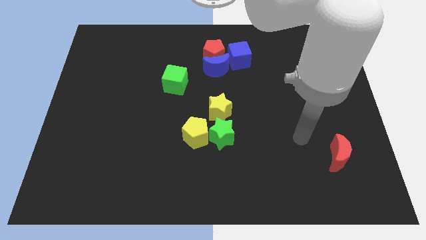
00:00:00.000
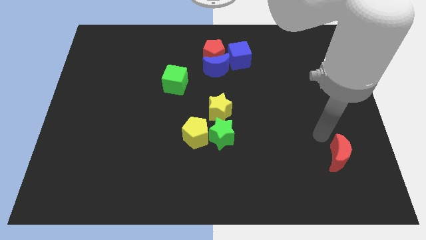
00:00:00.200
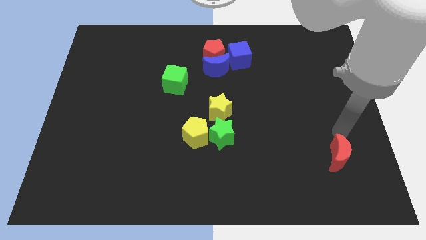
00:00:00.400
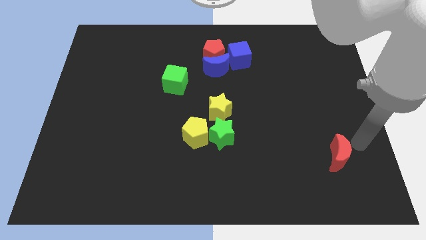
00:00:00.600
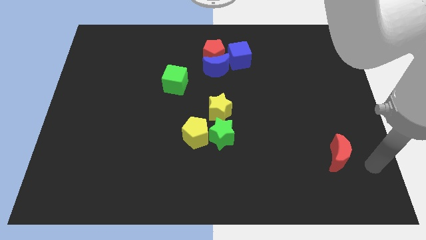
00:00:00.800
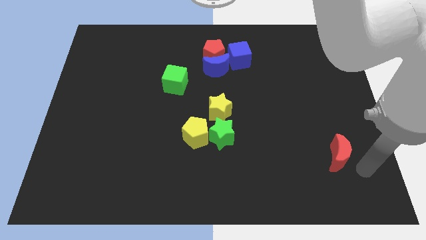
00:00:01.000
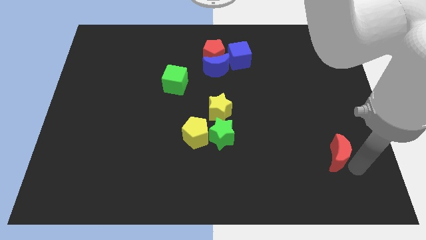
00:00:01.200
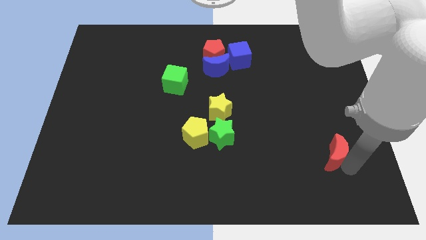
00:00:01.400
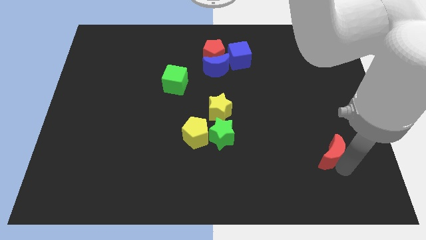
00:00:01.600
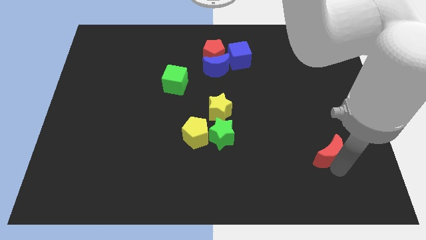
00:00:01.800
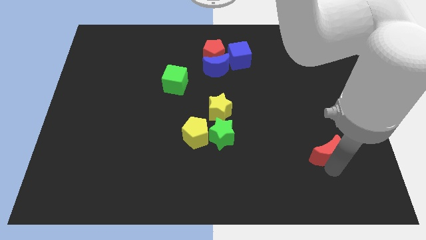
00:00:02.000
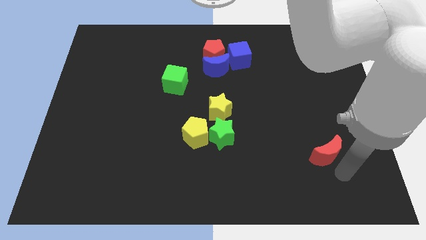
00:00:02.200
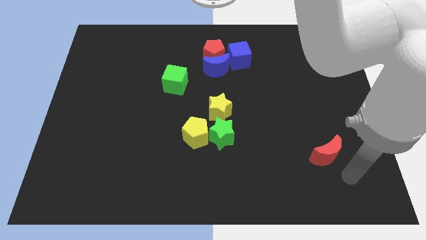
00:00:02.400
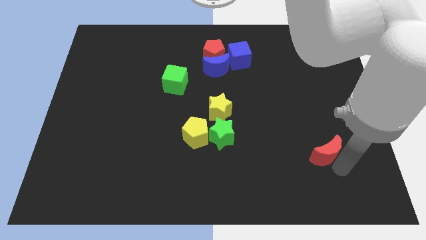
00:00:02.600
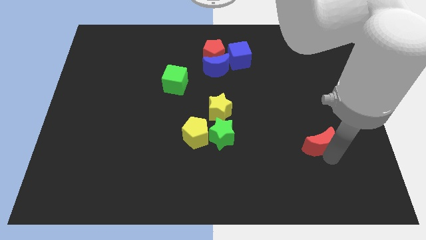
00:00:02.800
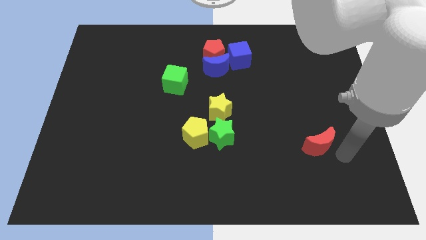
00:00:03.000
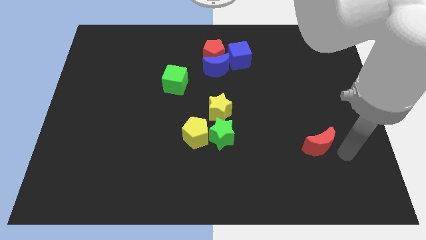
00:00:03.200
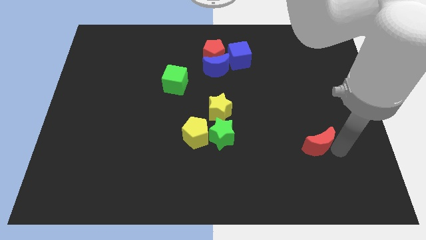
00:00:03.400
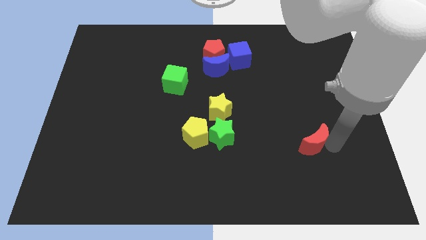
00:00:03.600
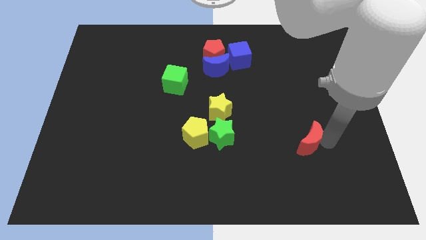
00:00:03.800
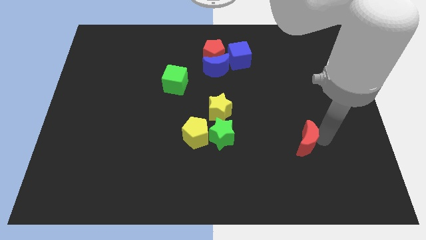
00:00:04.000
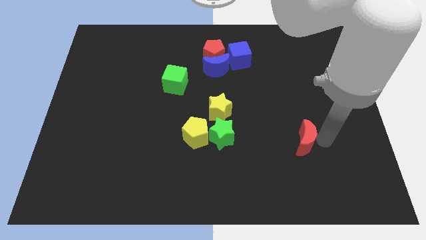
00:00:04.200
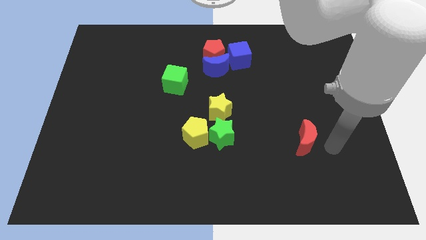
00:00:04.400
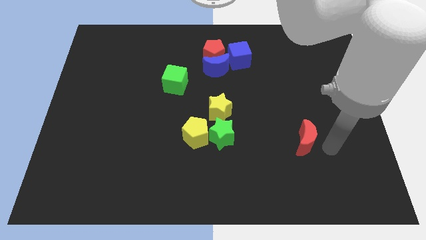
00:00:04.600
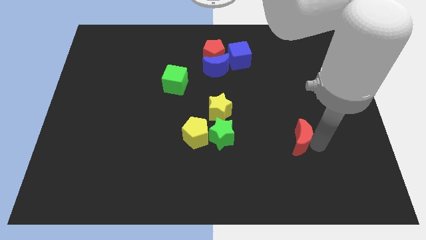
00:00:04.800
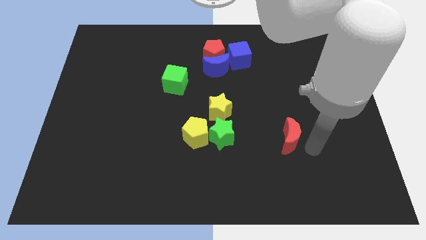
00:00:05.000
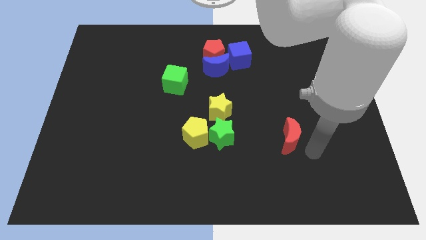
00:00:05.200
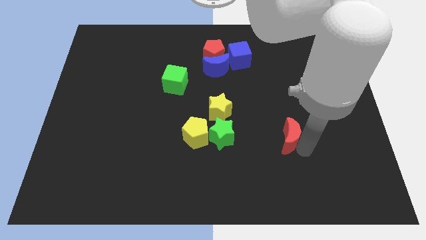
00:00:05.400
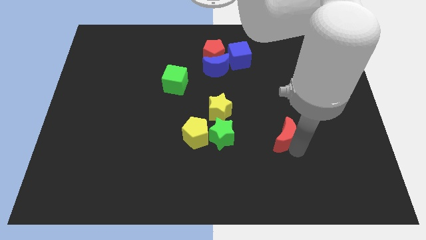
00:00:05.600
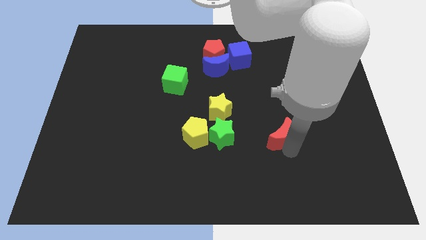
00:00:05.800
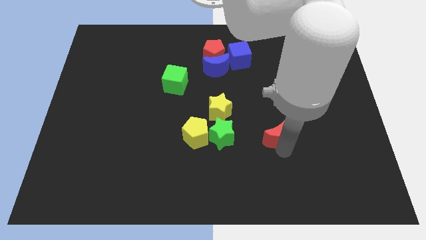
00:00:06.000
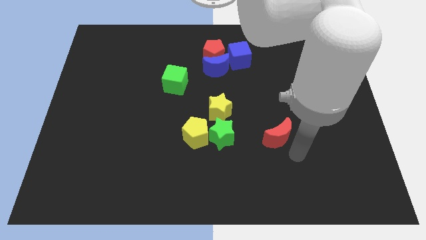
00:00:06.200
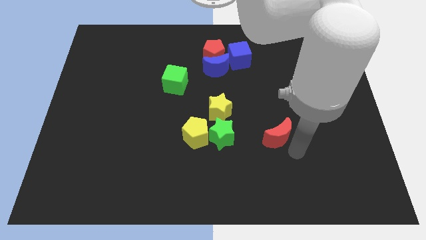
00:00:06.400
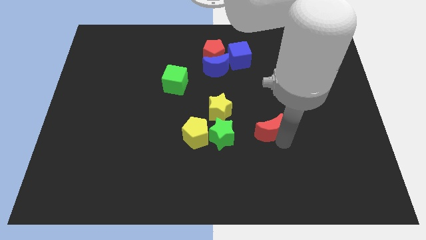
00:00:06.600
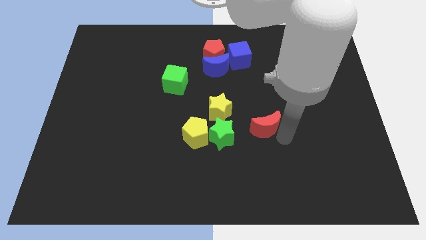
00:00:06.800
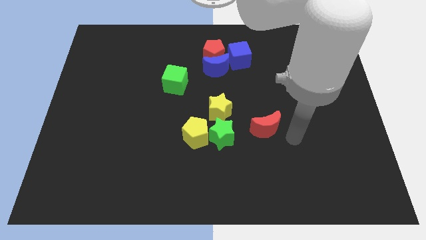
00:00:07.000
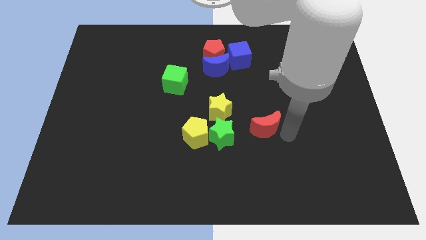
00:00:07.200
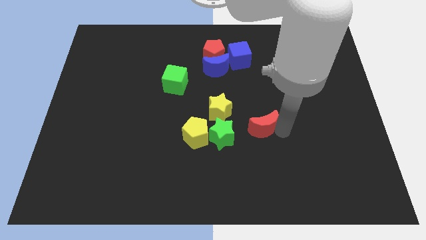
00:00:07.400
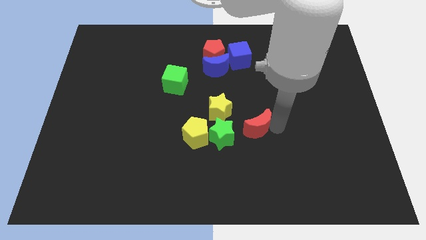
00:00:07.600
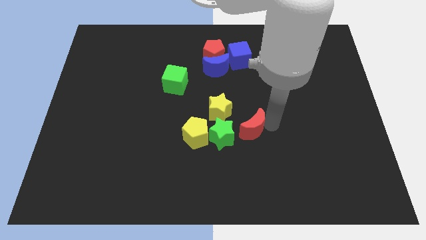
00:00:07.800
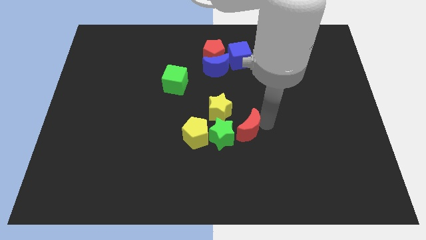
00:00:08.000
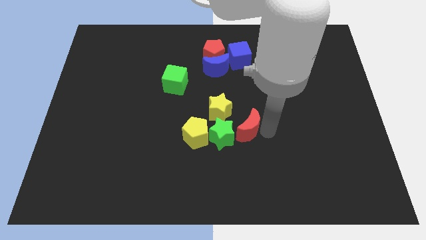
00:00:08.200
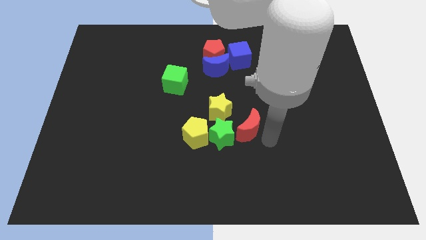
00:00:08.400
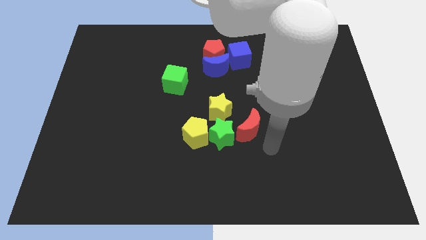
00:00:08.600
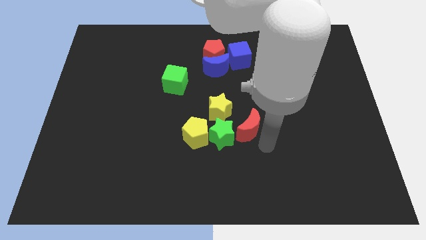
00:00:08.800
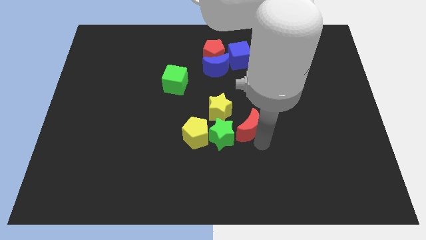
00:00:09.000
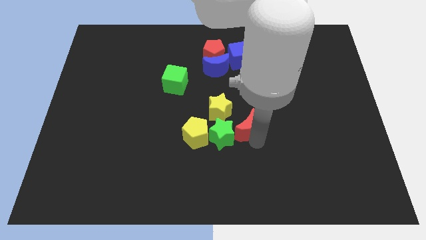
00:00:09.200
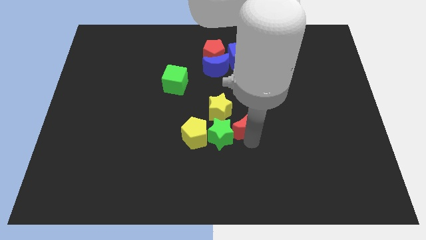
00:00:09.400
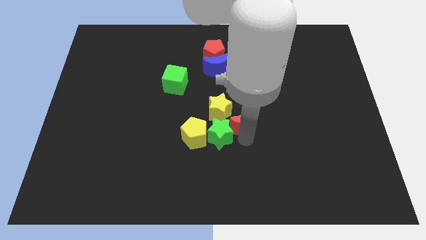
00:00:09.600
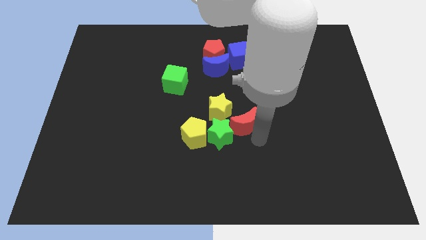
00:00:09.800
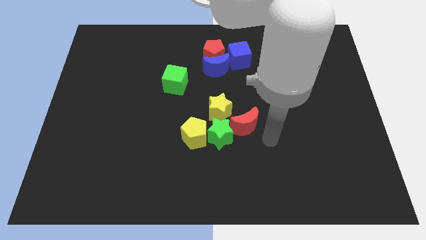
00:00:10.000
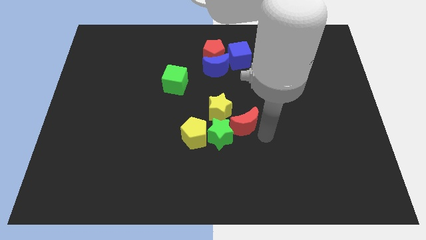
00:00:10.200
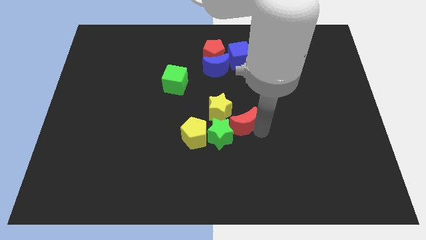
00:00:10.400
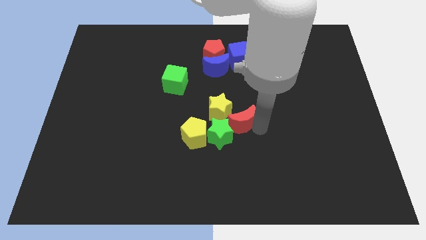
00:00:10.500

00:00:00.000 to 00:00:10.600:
slide the red moon close to the yellow star

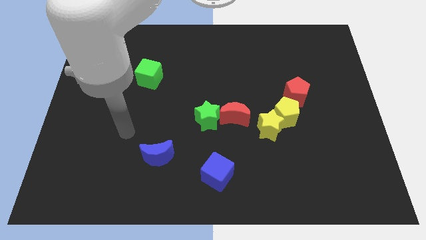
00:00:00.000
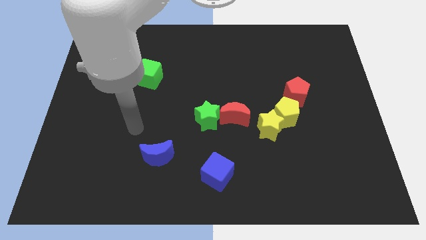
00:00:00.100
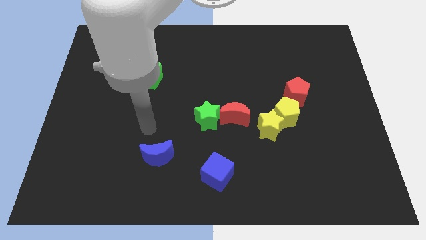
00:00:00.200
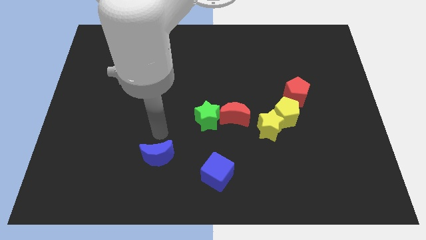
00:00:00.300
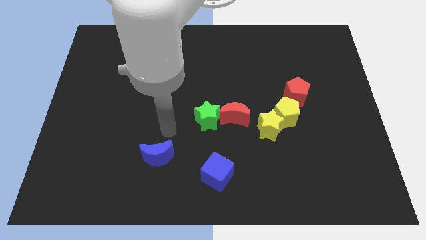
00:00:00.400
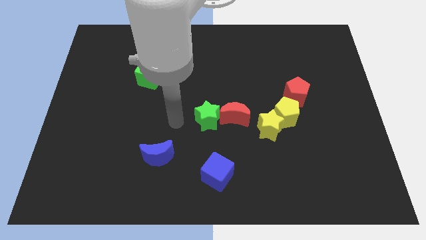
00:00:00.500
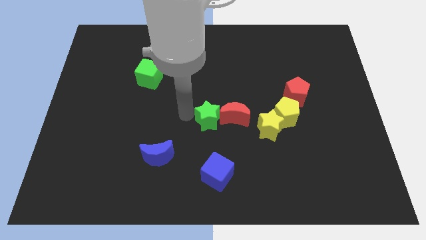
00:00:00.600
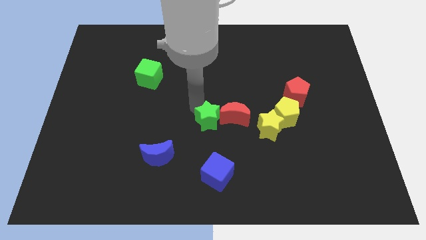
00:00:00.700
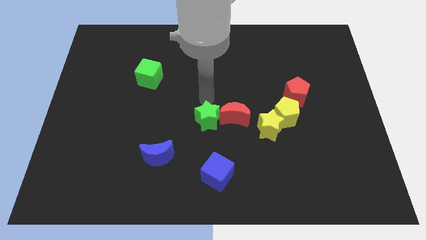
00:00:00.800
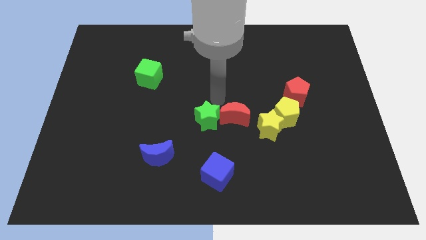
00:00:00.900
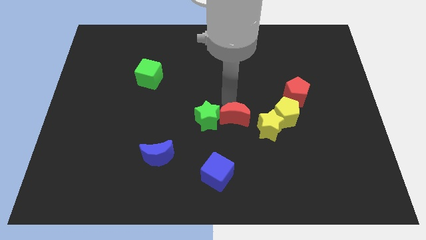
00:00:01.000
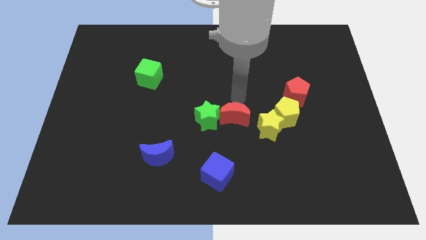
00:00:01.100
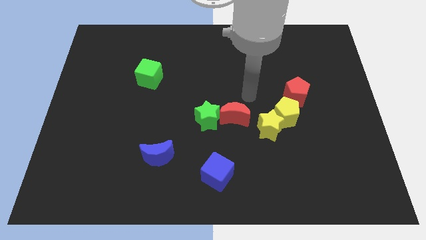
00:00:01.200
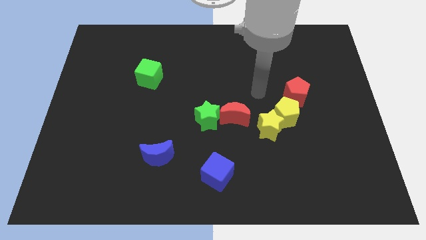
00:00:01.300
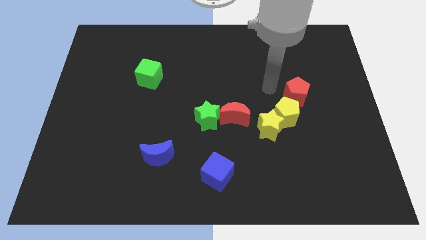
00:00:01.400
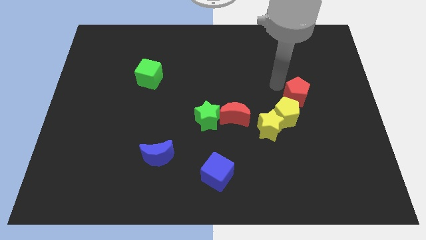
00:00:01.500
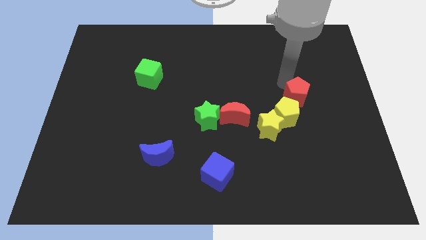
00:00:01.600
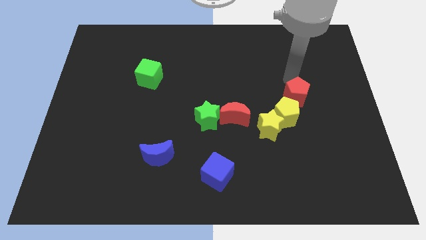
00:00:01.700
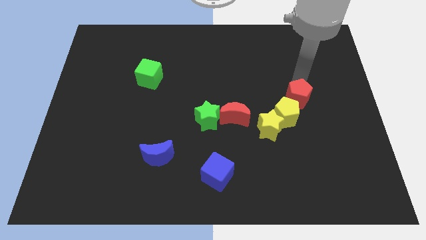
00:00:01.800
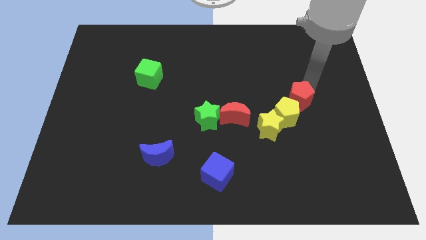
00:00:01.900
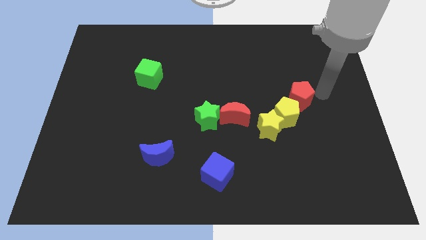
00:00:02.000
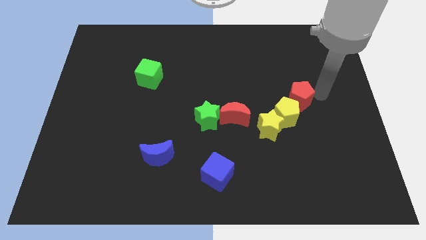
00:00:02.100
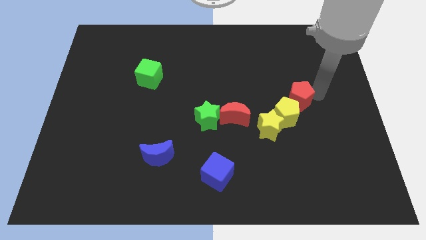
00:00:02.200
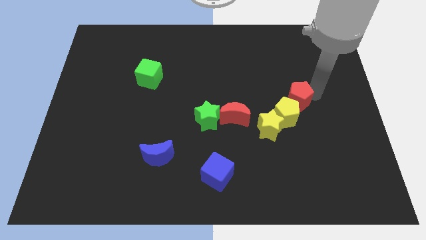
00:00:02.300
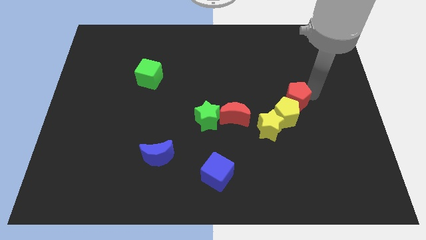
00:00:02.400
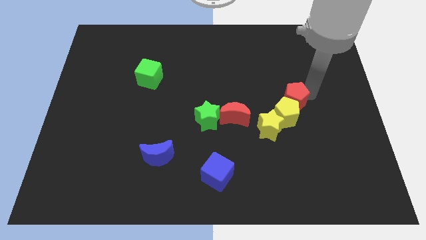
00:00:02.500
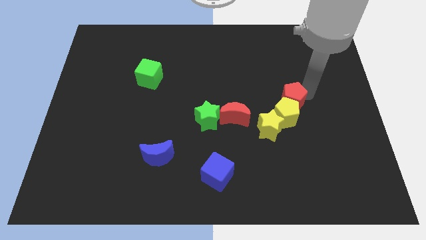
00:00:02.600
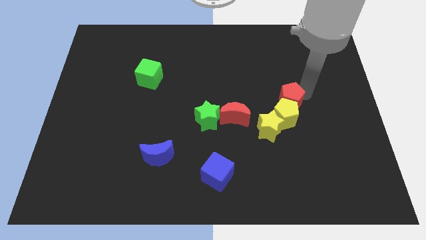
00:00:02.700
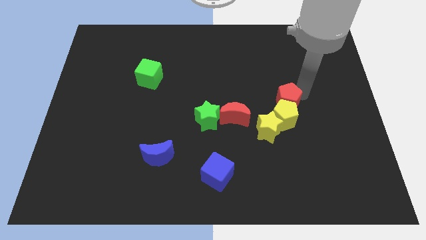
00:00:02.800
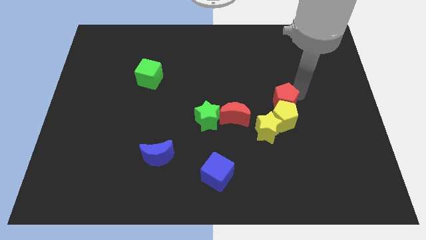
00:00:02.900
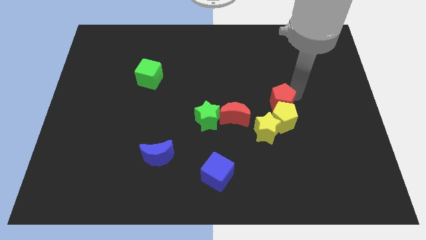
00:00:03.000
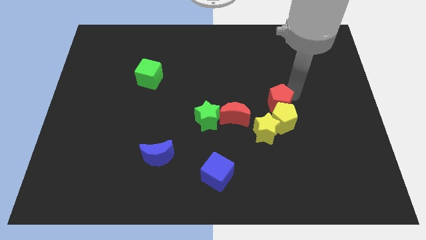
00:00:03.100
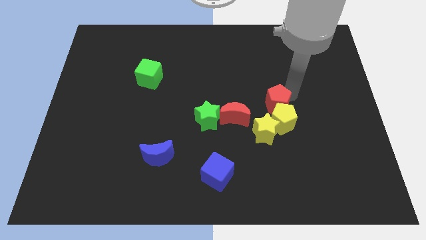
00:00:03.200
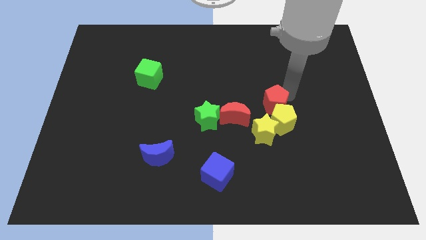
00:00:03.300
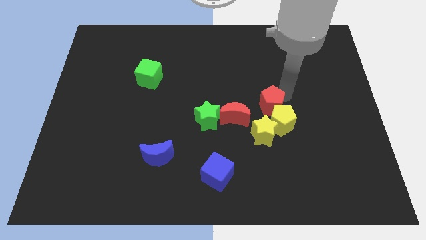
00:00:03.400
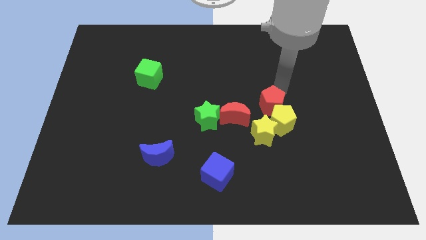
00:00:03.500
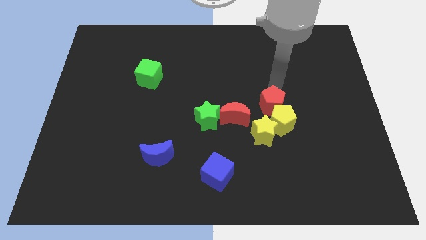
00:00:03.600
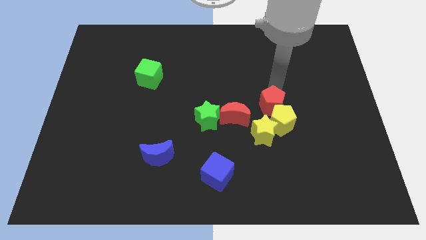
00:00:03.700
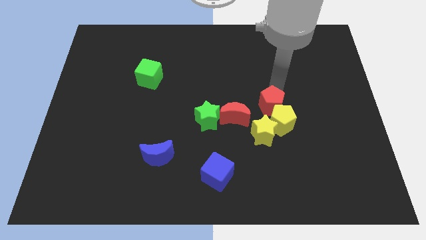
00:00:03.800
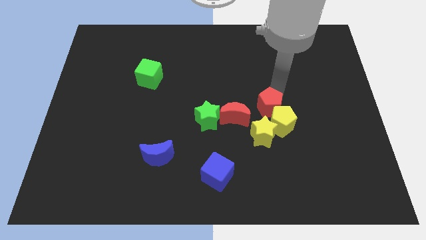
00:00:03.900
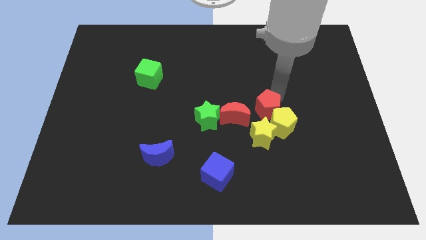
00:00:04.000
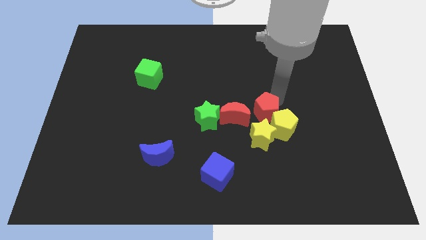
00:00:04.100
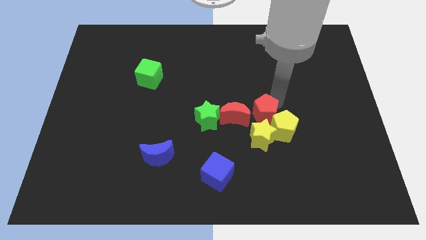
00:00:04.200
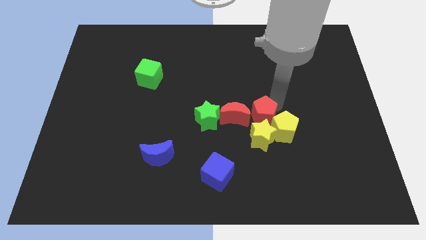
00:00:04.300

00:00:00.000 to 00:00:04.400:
slide the red pentagon close to the yellow star
